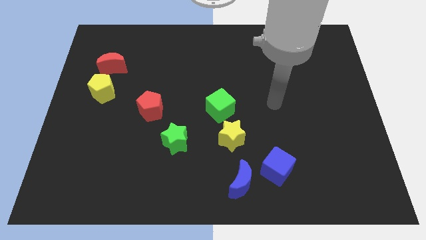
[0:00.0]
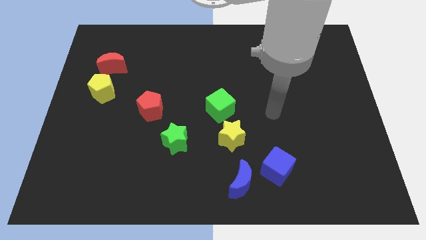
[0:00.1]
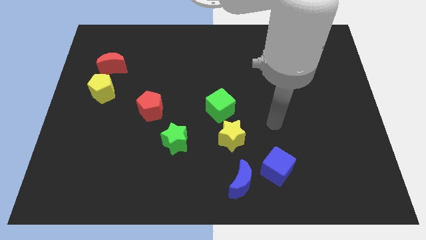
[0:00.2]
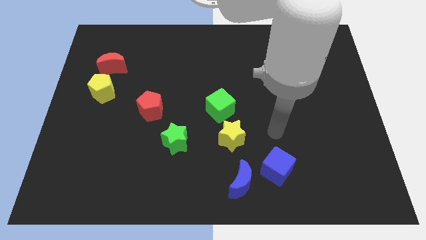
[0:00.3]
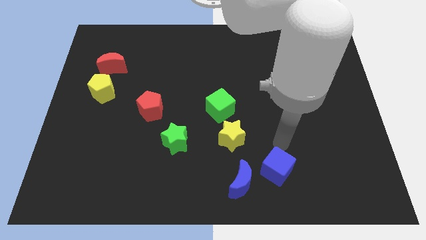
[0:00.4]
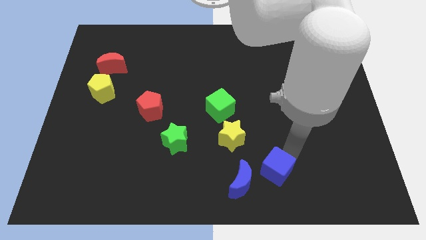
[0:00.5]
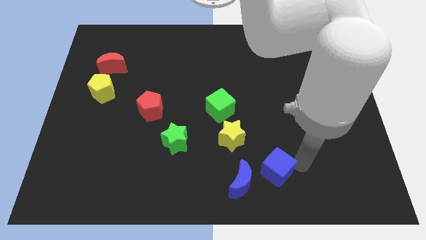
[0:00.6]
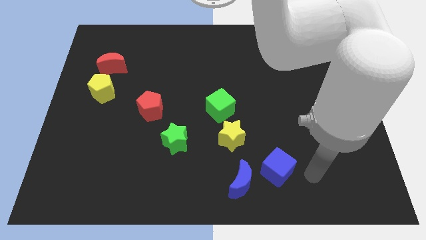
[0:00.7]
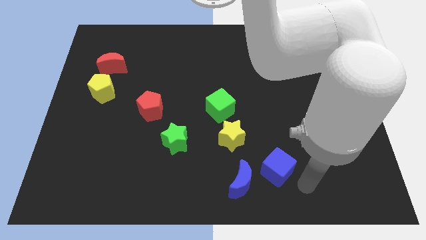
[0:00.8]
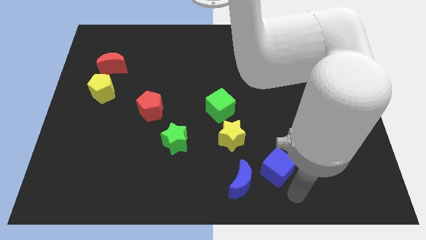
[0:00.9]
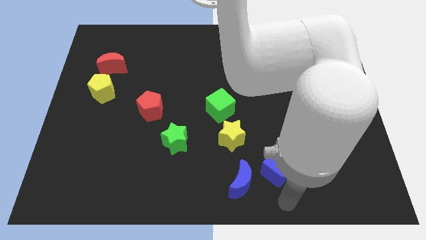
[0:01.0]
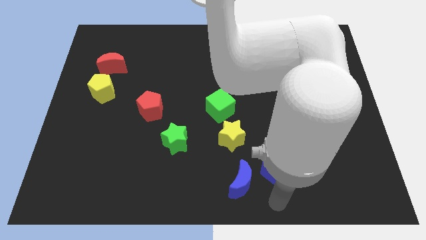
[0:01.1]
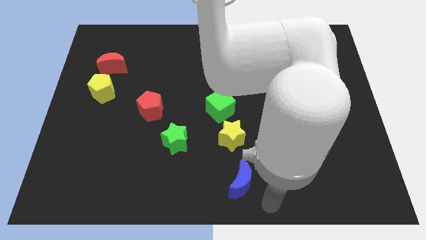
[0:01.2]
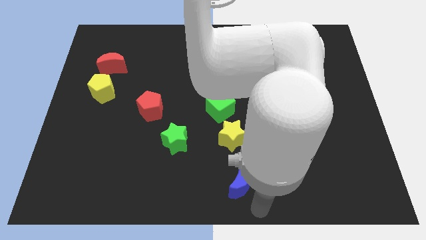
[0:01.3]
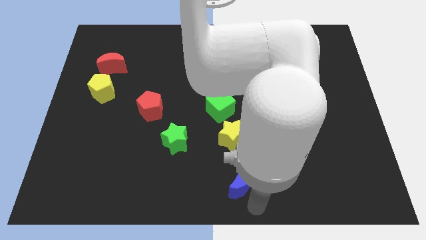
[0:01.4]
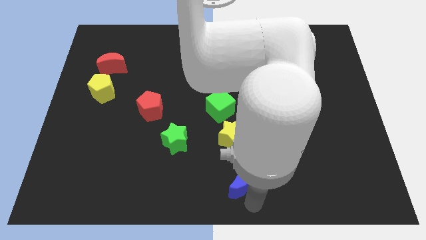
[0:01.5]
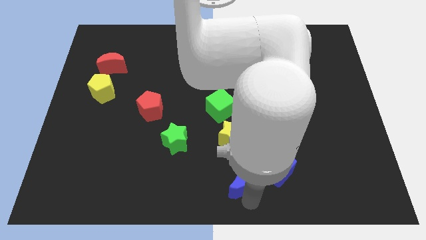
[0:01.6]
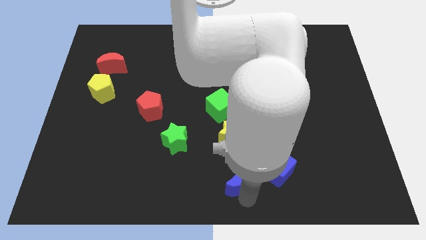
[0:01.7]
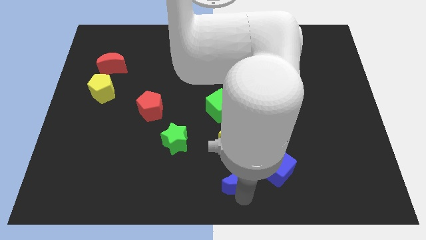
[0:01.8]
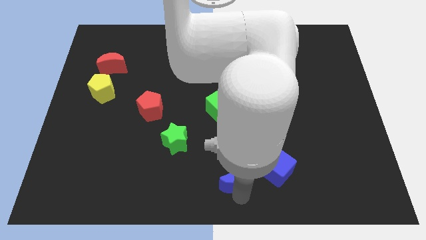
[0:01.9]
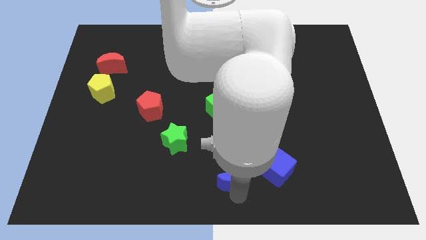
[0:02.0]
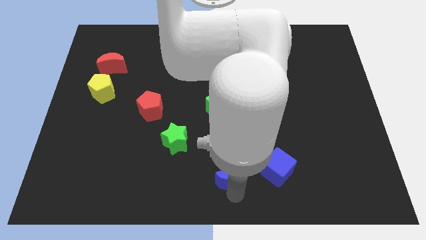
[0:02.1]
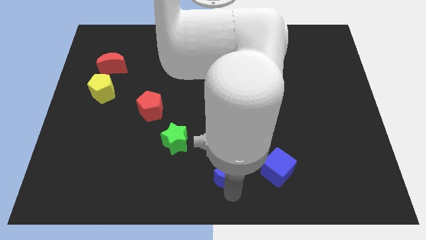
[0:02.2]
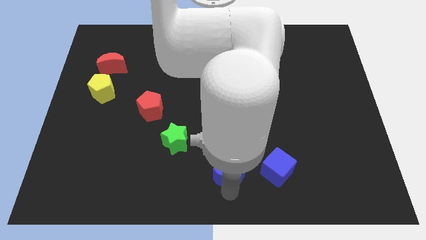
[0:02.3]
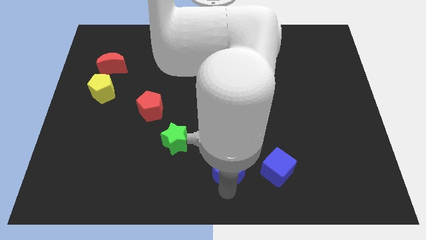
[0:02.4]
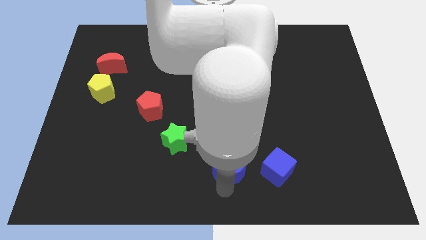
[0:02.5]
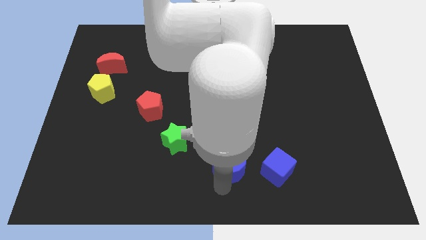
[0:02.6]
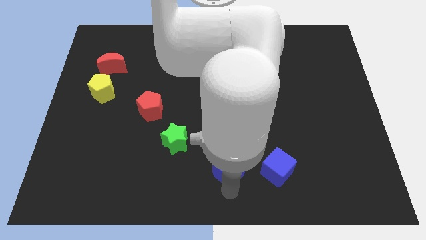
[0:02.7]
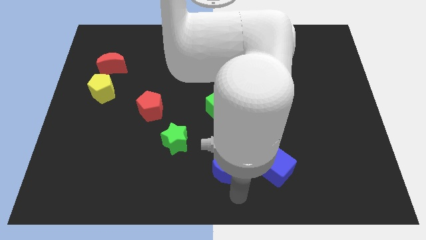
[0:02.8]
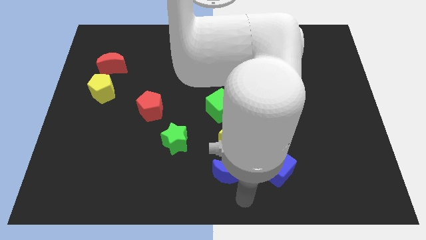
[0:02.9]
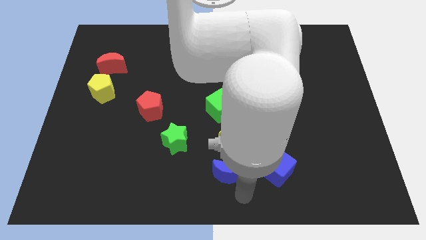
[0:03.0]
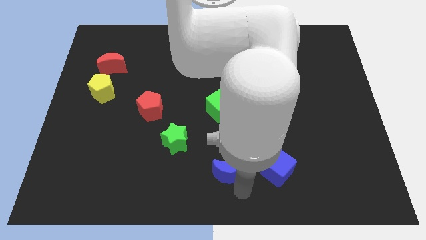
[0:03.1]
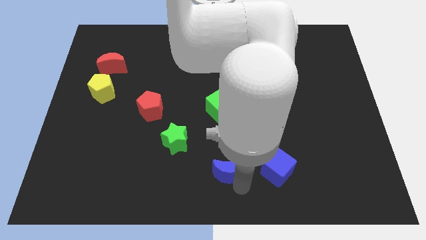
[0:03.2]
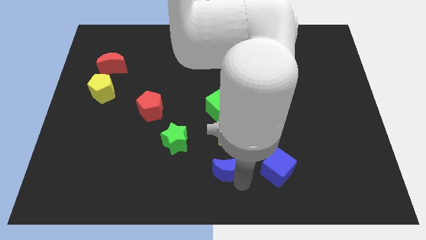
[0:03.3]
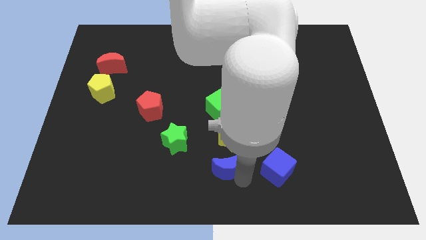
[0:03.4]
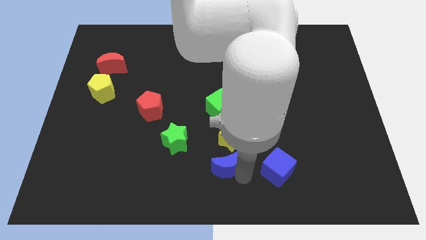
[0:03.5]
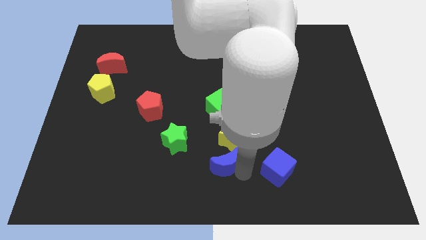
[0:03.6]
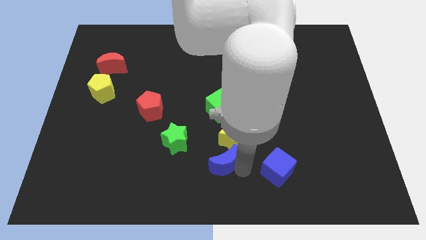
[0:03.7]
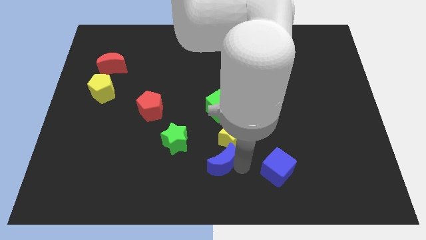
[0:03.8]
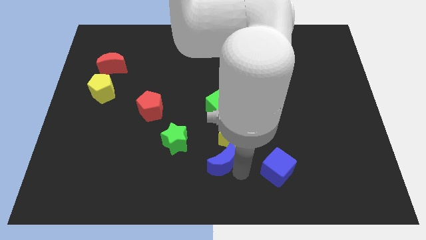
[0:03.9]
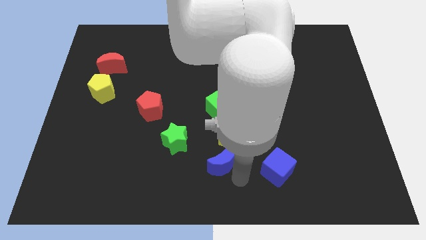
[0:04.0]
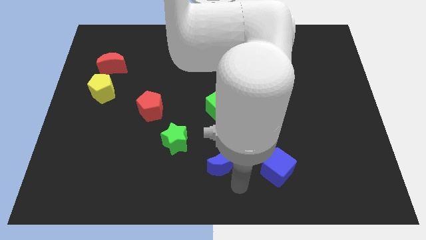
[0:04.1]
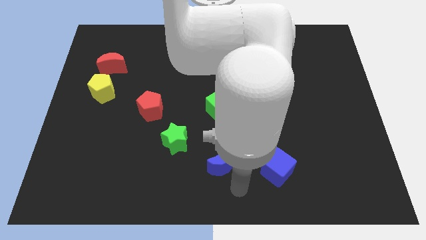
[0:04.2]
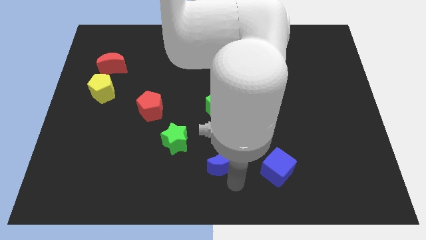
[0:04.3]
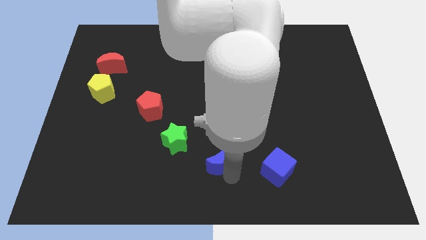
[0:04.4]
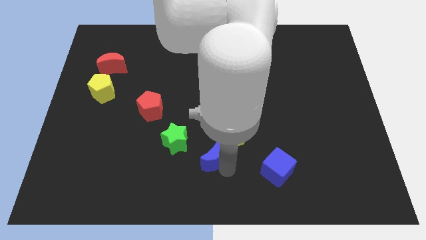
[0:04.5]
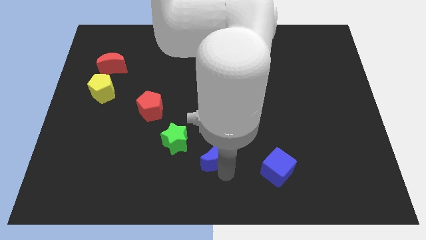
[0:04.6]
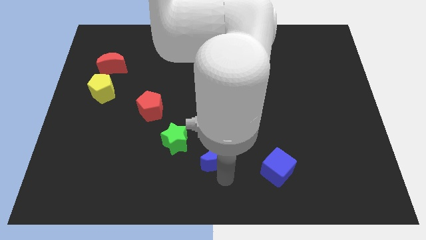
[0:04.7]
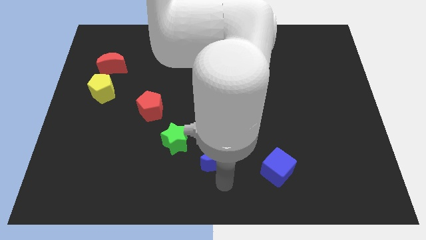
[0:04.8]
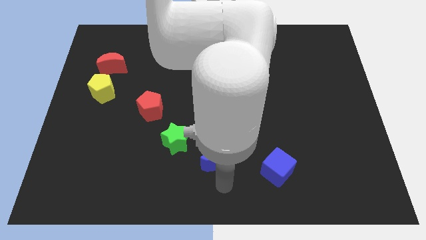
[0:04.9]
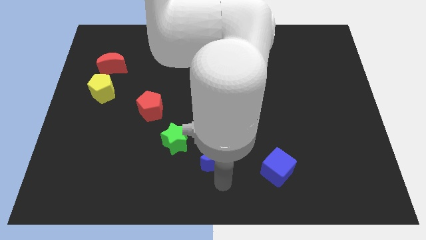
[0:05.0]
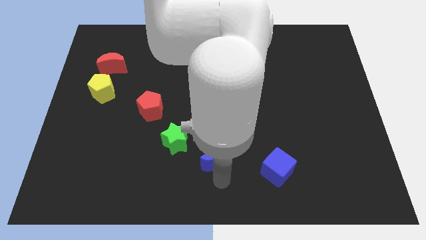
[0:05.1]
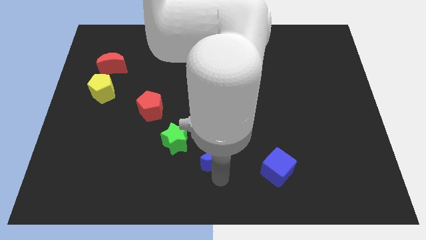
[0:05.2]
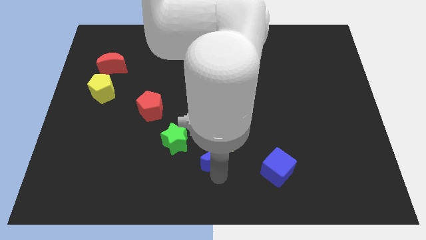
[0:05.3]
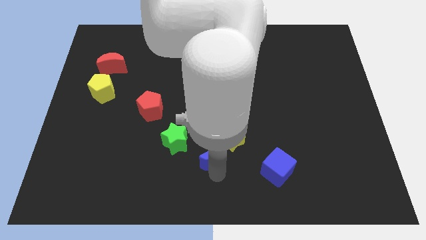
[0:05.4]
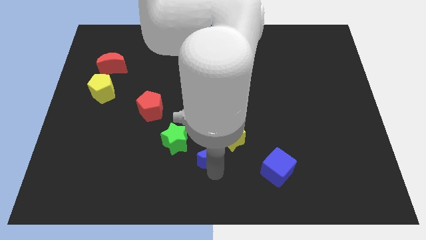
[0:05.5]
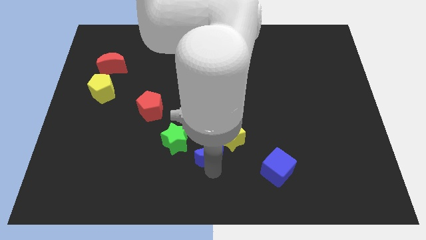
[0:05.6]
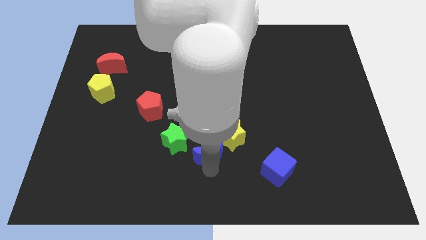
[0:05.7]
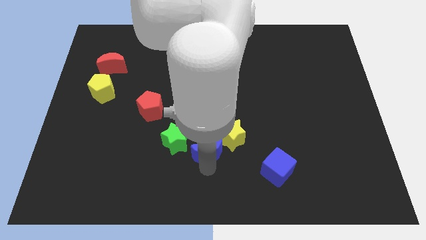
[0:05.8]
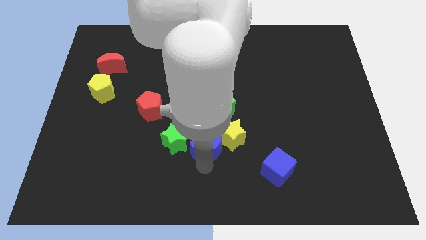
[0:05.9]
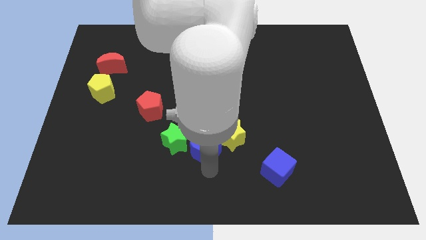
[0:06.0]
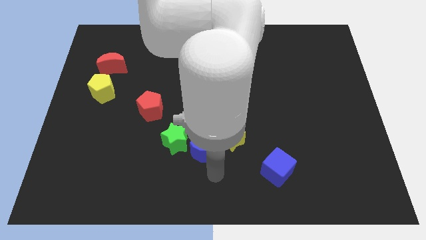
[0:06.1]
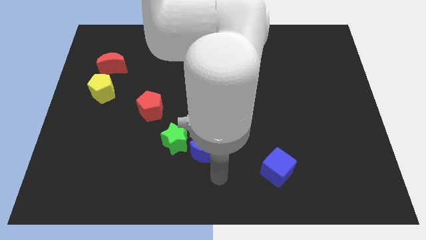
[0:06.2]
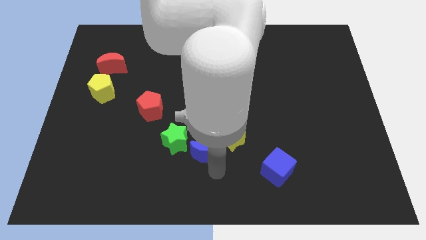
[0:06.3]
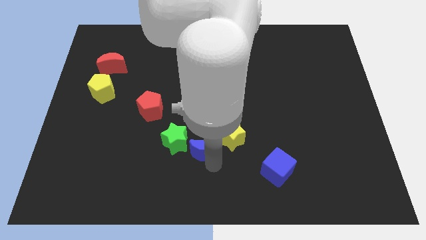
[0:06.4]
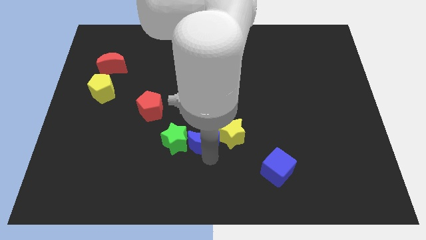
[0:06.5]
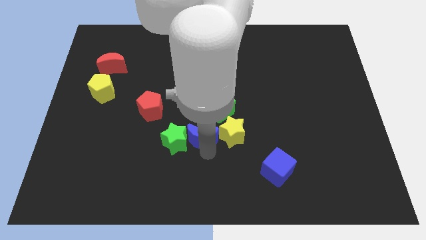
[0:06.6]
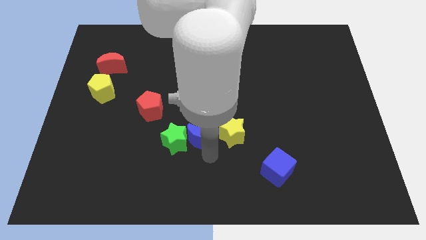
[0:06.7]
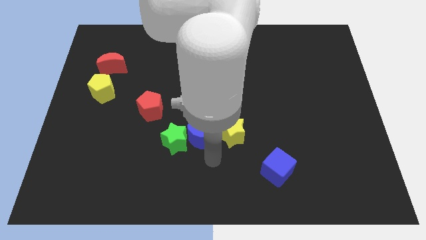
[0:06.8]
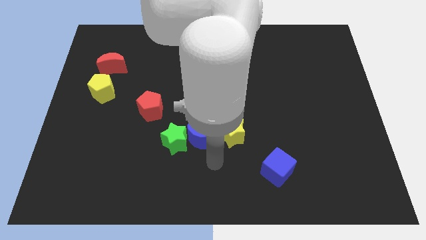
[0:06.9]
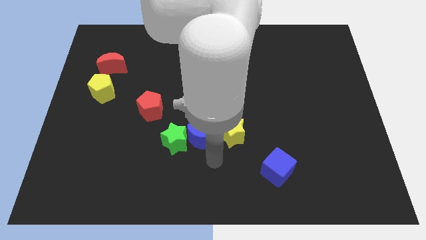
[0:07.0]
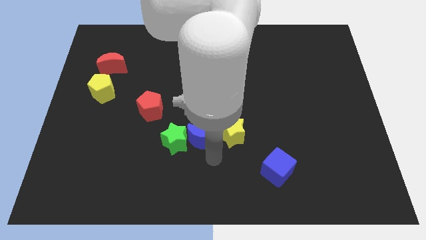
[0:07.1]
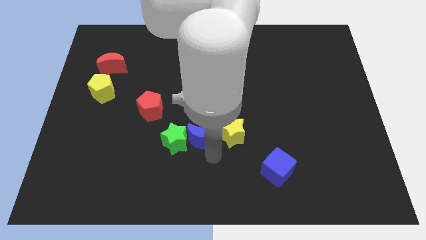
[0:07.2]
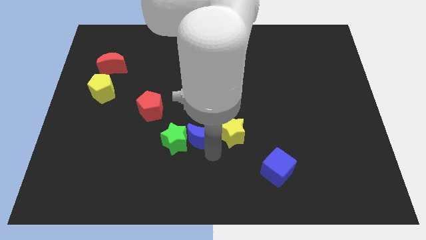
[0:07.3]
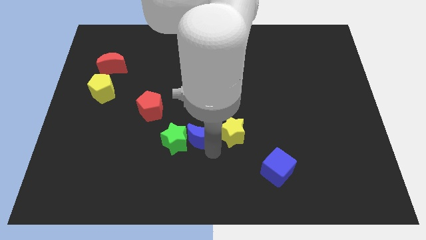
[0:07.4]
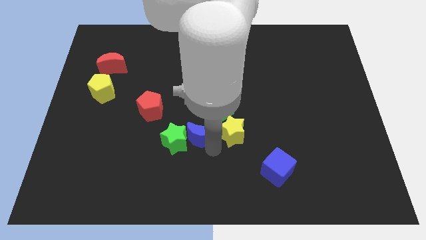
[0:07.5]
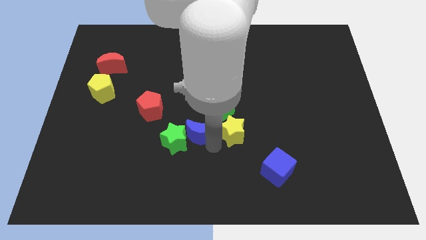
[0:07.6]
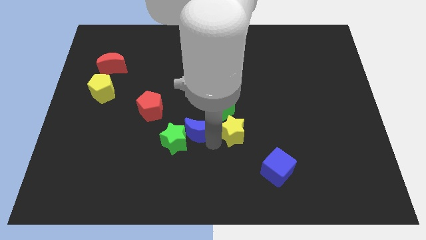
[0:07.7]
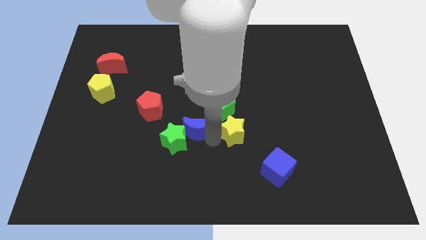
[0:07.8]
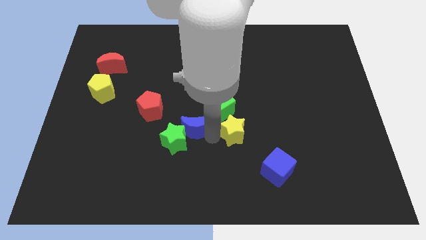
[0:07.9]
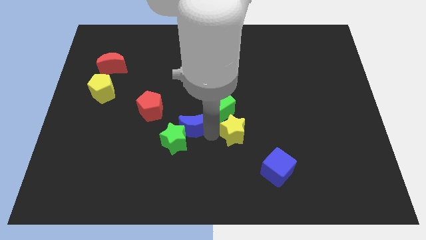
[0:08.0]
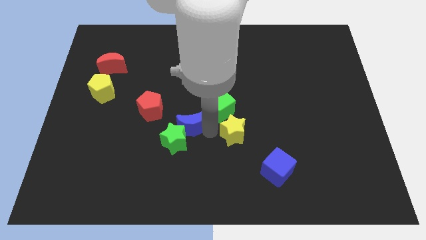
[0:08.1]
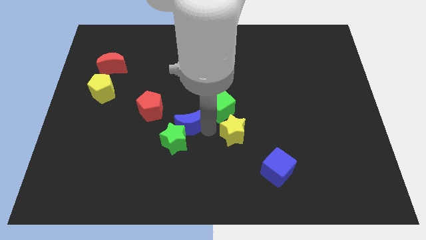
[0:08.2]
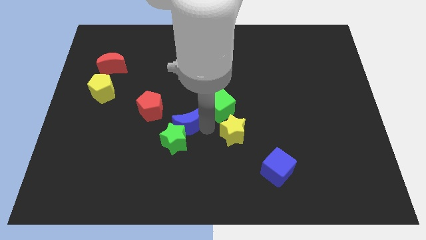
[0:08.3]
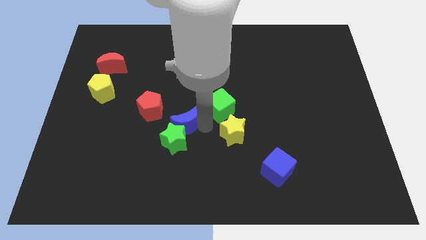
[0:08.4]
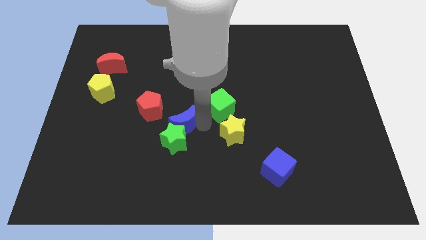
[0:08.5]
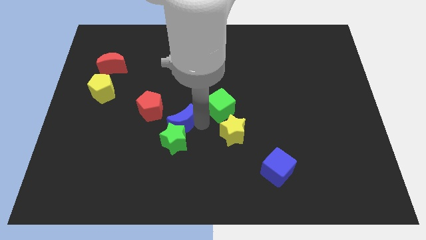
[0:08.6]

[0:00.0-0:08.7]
put the blue moon to the top left of the green star
